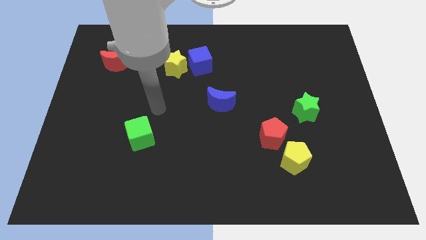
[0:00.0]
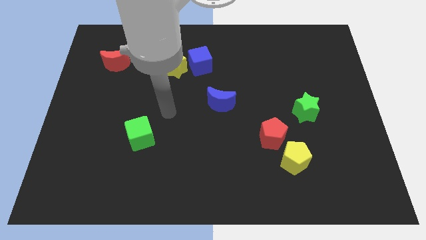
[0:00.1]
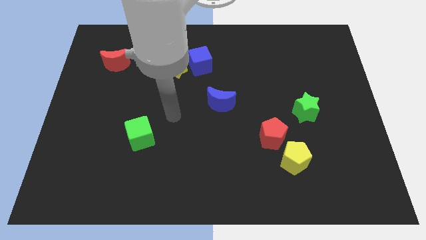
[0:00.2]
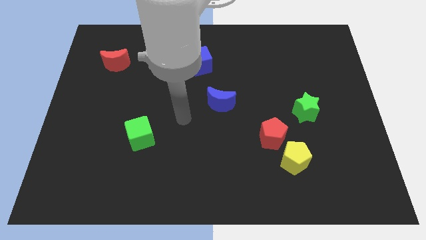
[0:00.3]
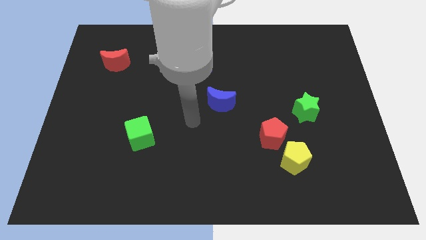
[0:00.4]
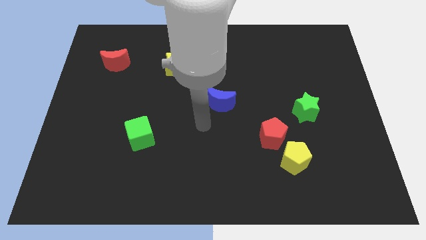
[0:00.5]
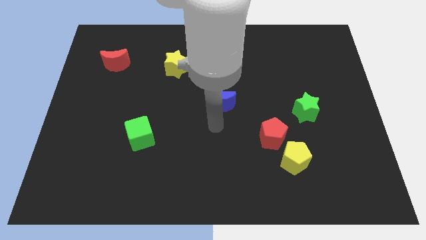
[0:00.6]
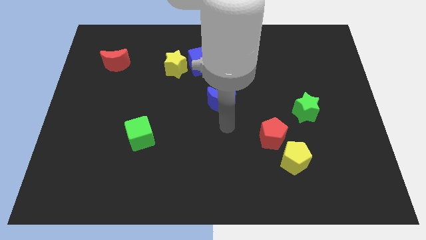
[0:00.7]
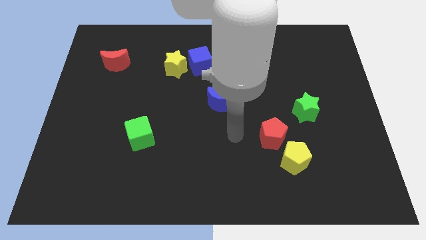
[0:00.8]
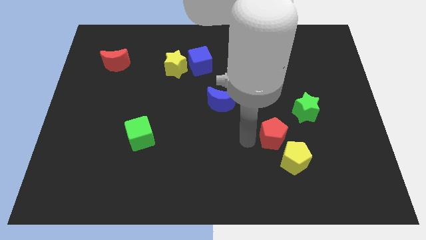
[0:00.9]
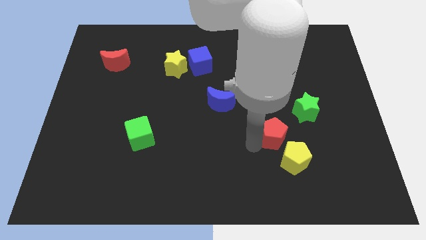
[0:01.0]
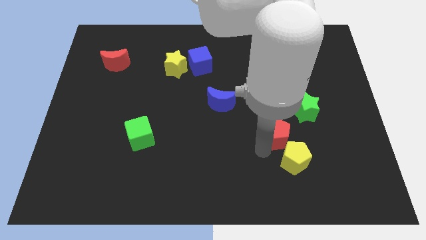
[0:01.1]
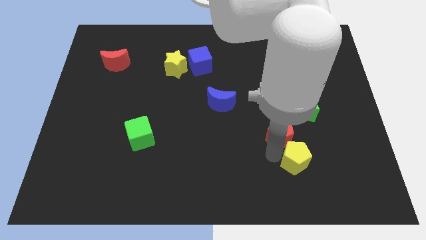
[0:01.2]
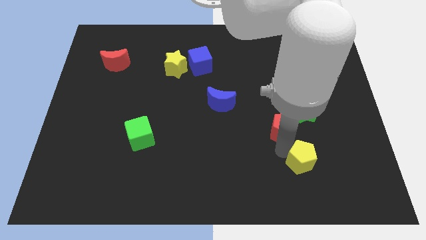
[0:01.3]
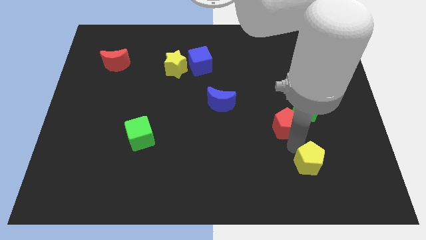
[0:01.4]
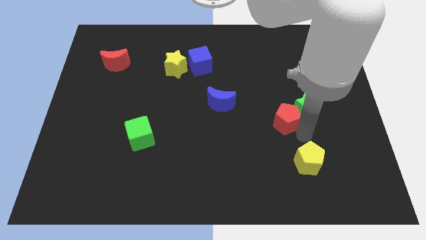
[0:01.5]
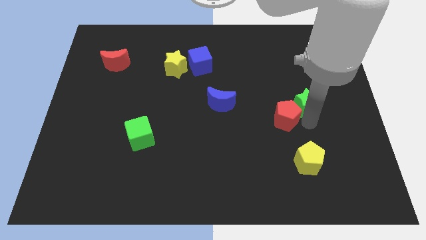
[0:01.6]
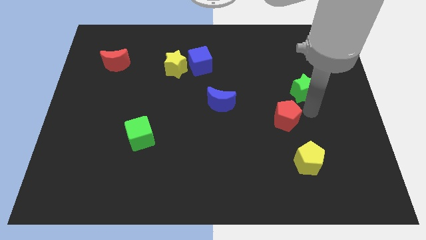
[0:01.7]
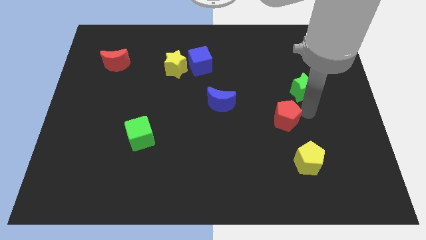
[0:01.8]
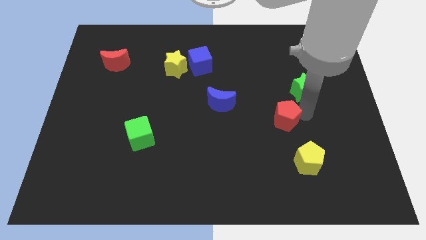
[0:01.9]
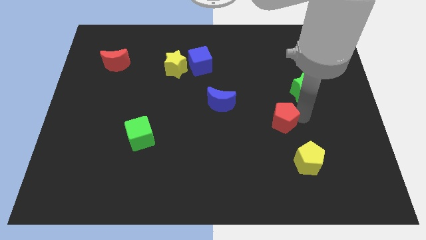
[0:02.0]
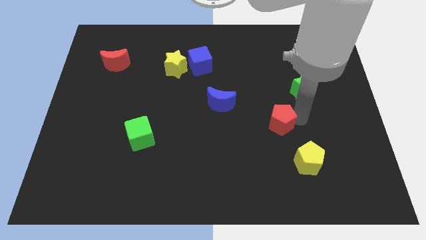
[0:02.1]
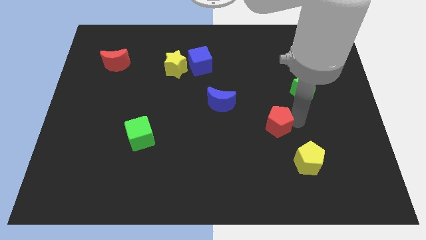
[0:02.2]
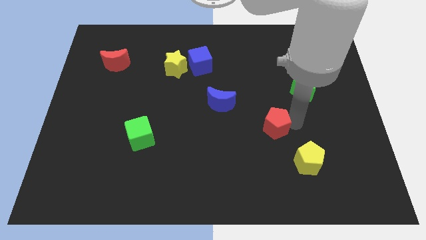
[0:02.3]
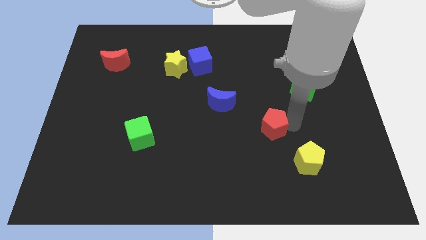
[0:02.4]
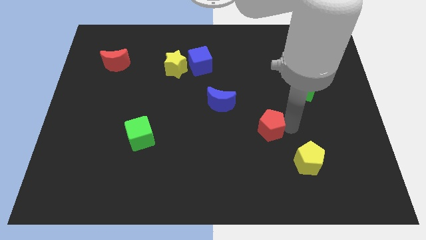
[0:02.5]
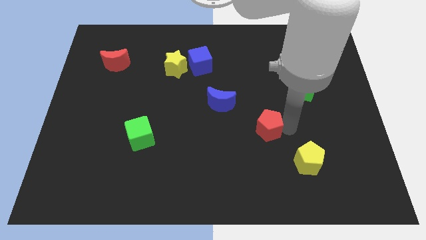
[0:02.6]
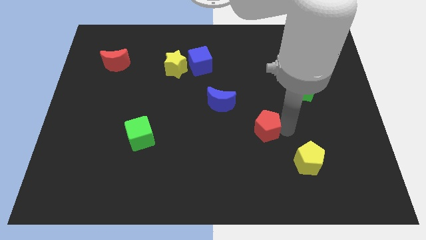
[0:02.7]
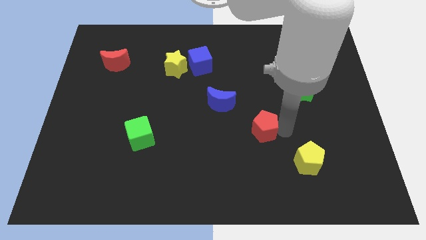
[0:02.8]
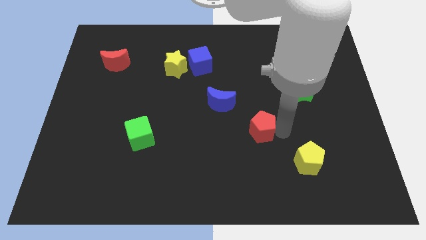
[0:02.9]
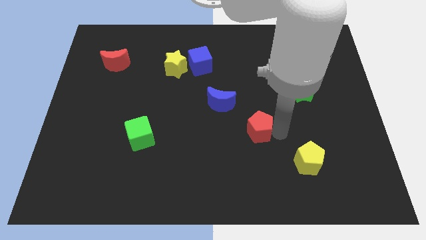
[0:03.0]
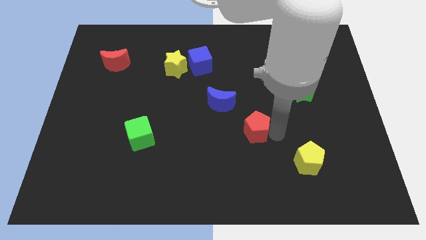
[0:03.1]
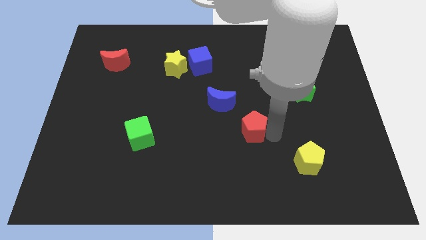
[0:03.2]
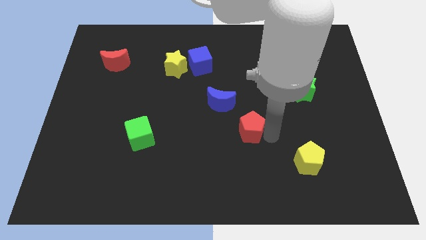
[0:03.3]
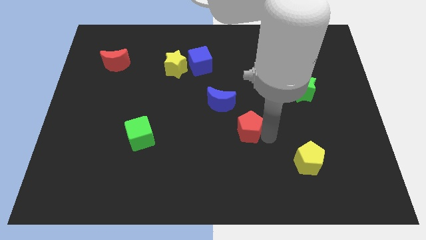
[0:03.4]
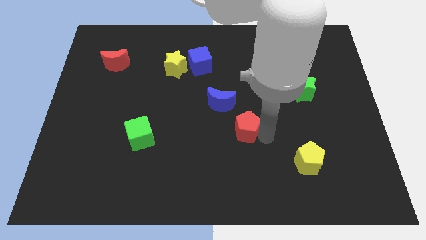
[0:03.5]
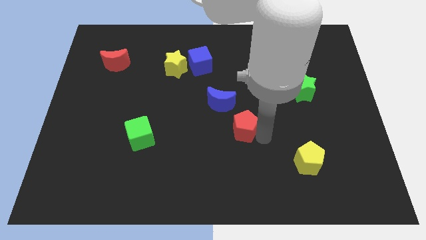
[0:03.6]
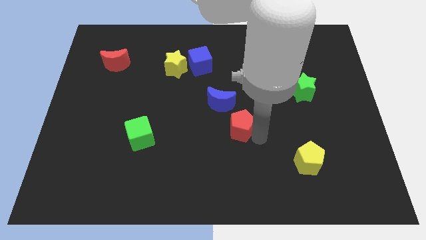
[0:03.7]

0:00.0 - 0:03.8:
move the red pentagon somewhat to the left

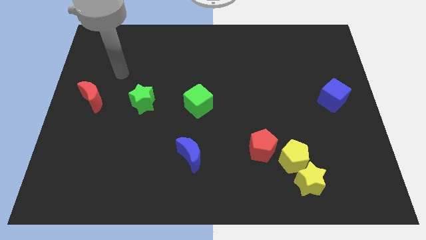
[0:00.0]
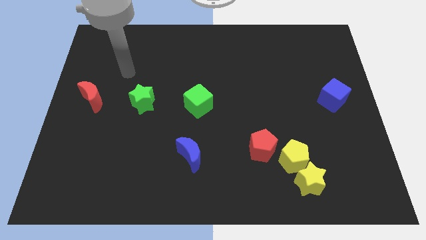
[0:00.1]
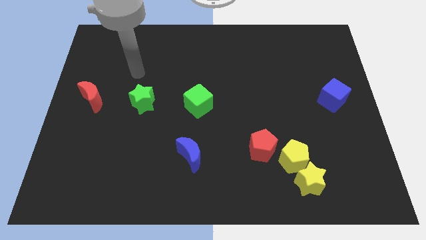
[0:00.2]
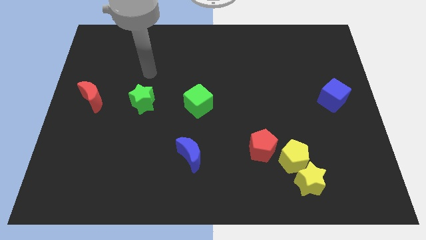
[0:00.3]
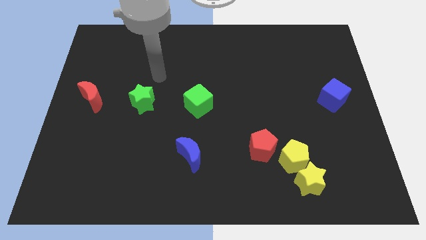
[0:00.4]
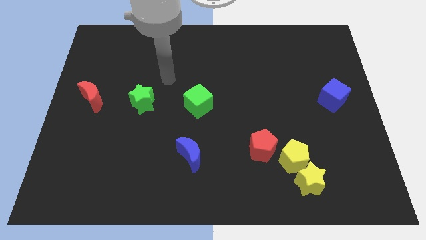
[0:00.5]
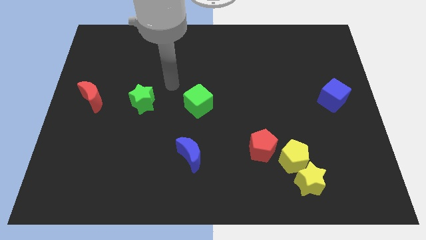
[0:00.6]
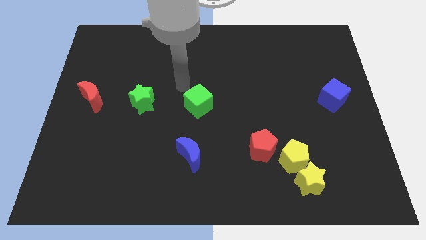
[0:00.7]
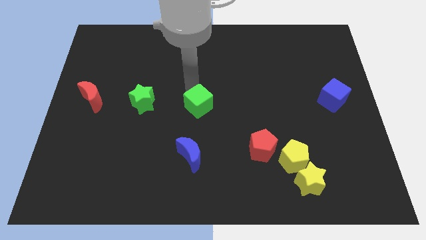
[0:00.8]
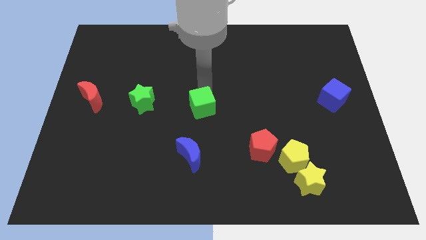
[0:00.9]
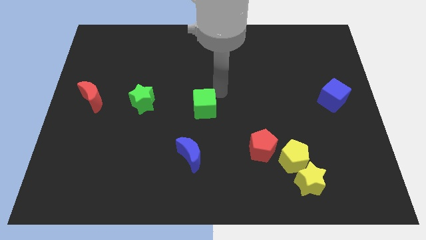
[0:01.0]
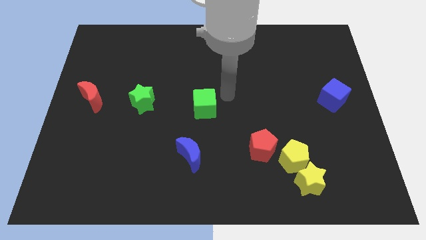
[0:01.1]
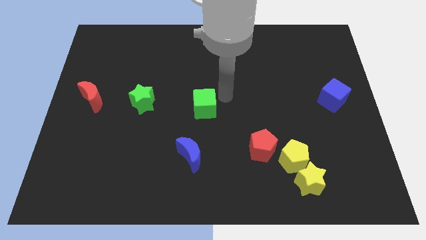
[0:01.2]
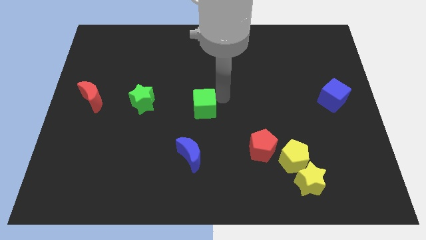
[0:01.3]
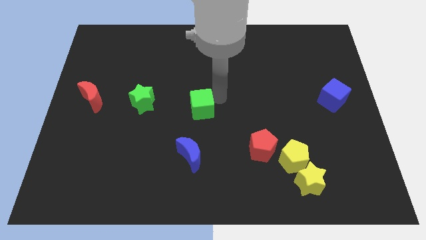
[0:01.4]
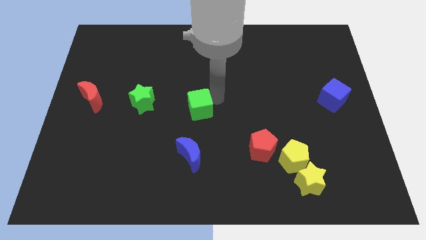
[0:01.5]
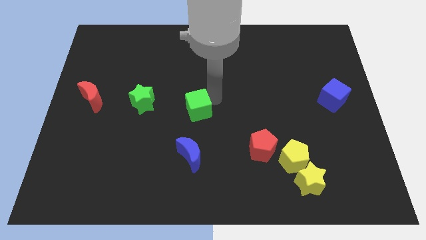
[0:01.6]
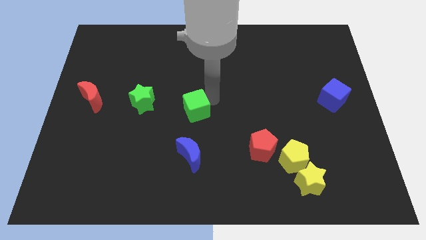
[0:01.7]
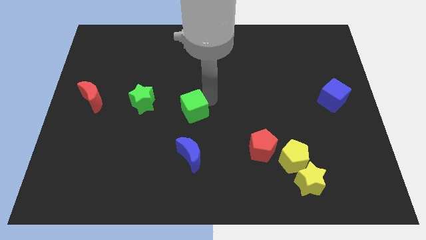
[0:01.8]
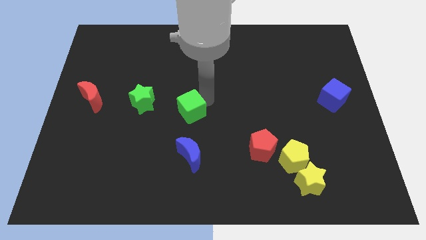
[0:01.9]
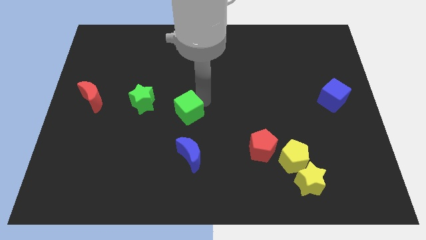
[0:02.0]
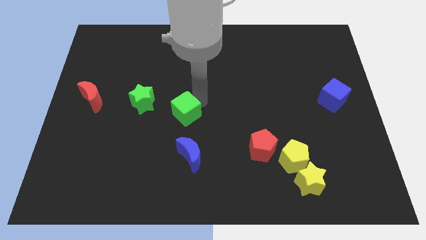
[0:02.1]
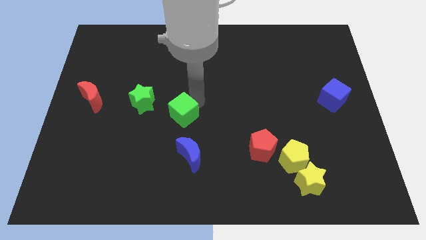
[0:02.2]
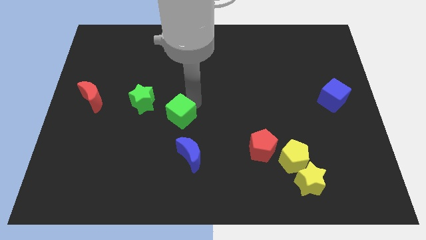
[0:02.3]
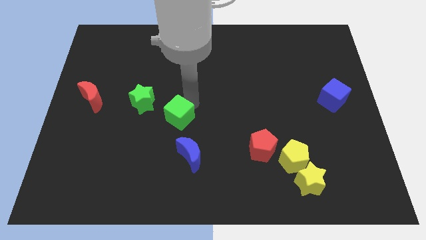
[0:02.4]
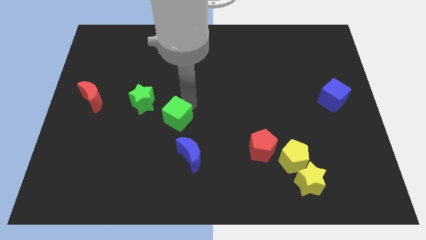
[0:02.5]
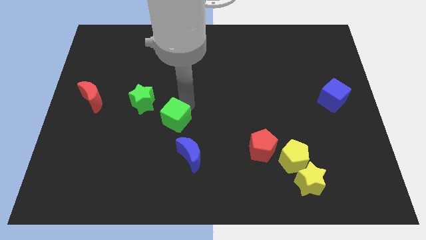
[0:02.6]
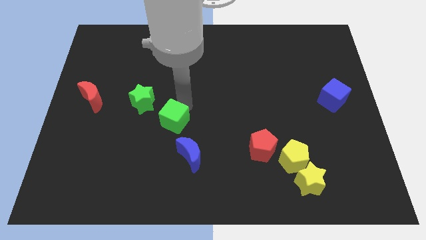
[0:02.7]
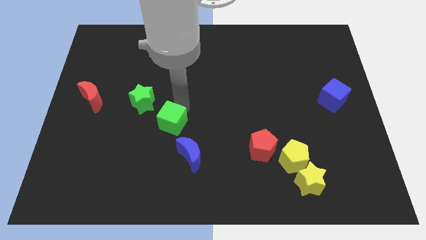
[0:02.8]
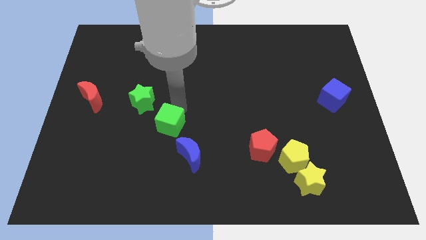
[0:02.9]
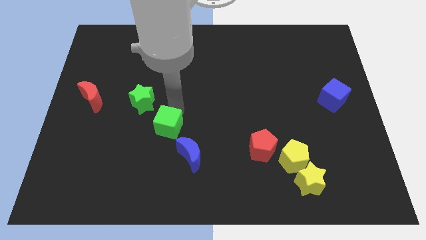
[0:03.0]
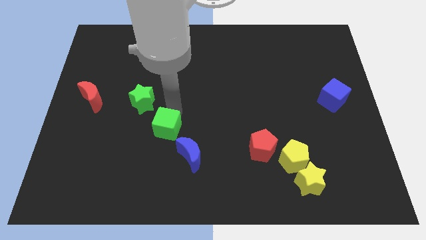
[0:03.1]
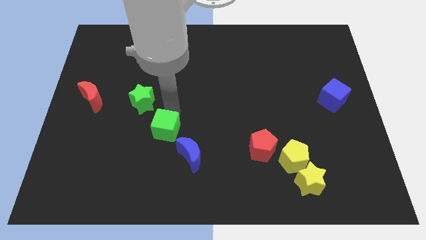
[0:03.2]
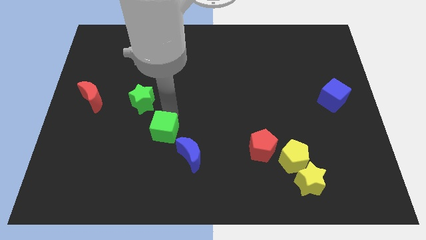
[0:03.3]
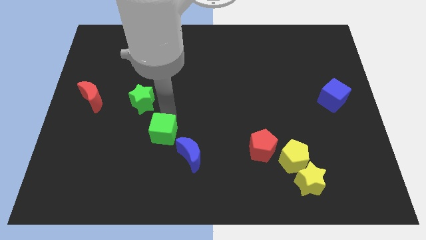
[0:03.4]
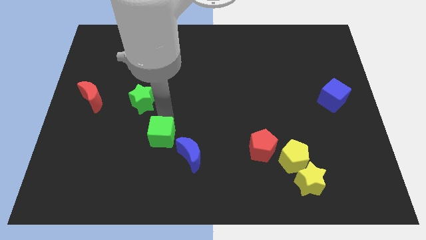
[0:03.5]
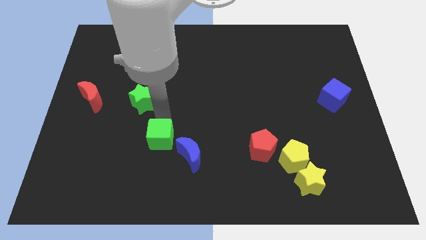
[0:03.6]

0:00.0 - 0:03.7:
move the green cube a little down

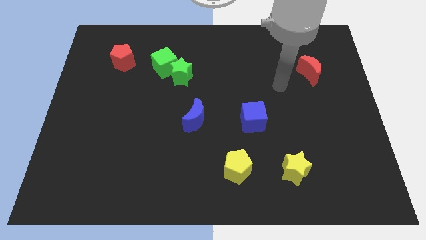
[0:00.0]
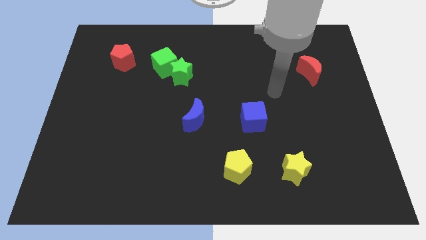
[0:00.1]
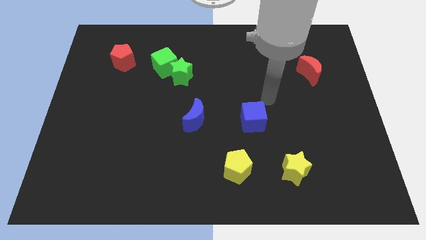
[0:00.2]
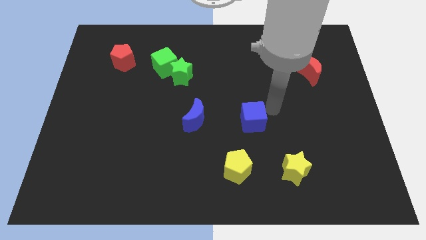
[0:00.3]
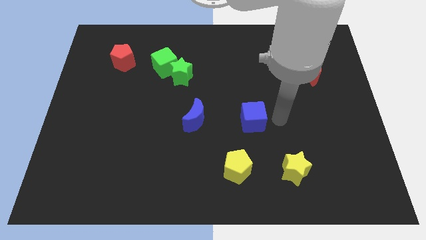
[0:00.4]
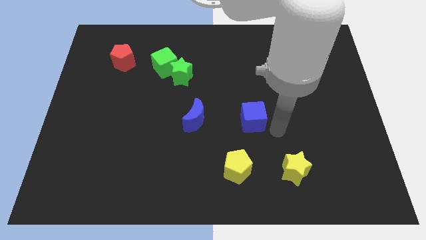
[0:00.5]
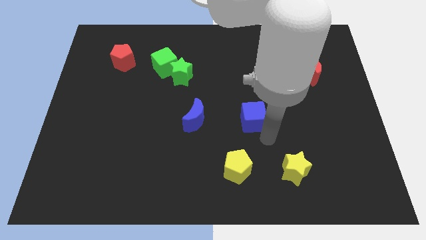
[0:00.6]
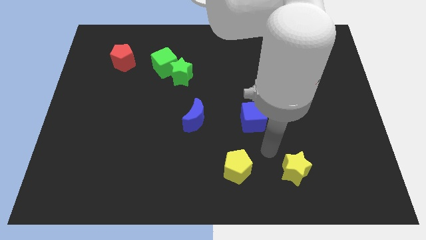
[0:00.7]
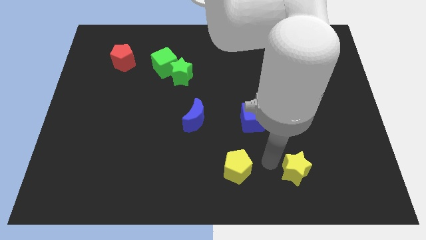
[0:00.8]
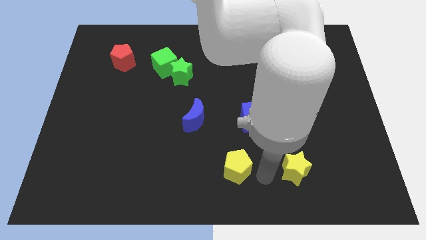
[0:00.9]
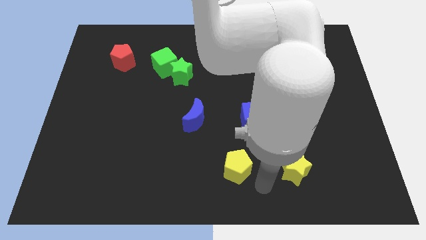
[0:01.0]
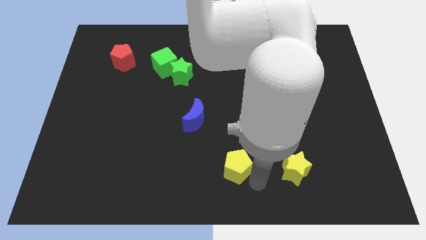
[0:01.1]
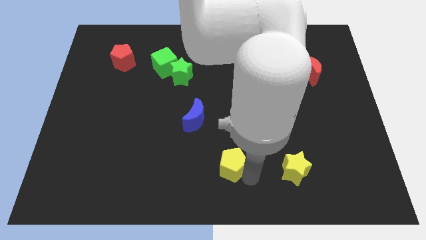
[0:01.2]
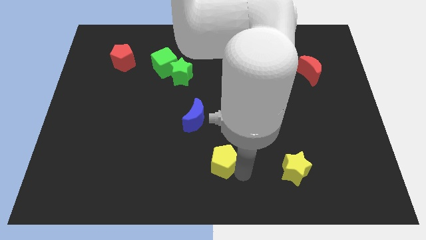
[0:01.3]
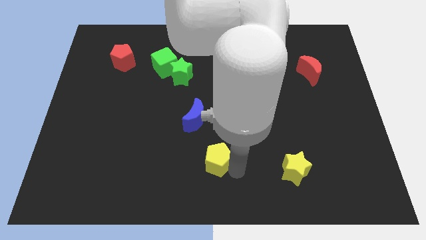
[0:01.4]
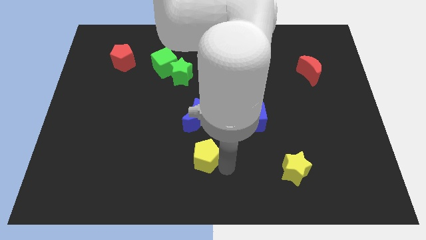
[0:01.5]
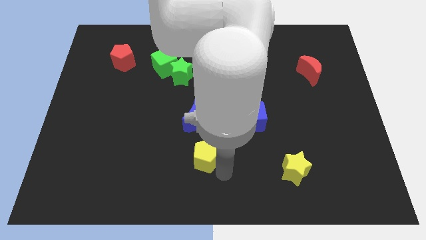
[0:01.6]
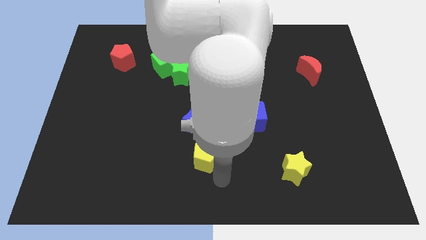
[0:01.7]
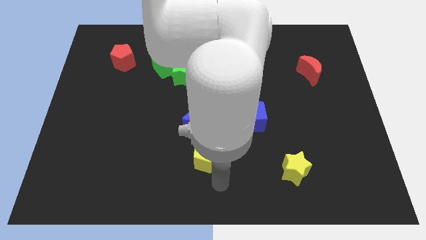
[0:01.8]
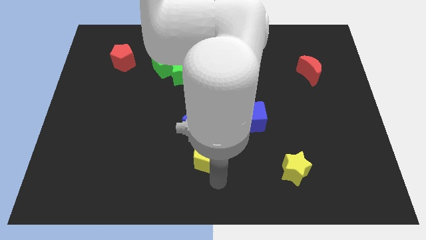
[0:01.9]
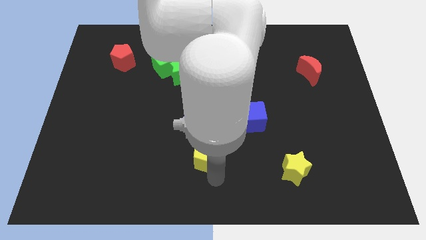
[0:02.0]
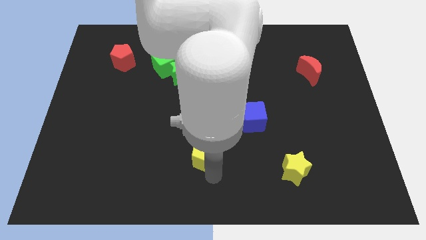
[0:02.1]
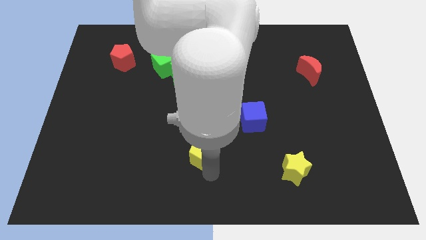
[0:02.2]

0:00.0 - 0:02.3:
move the yellow pentagon a little diagonally up and left
